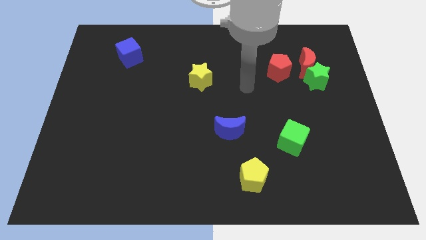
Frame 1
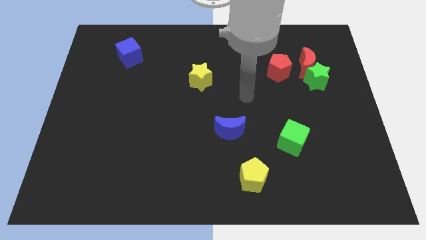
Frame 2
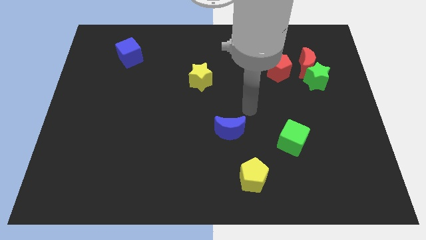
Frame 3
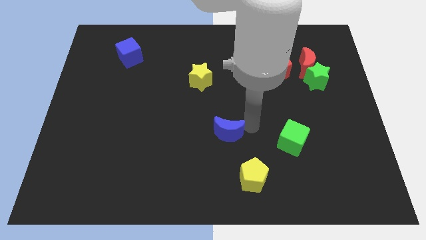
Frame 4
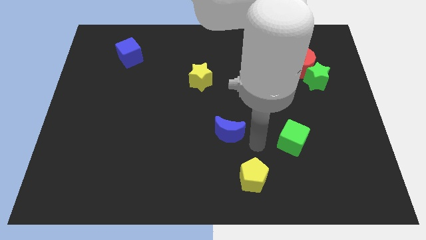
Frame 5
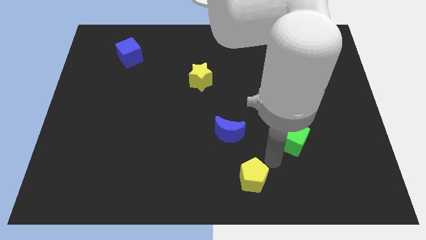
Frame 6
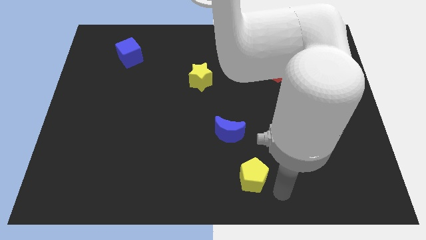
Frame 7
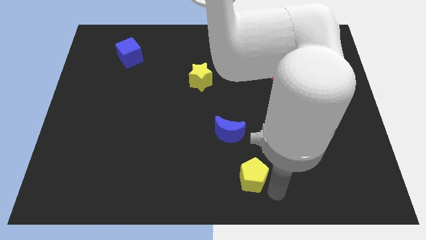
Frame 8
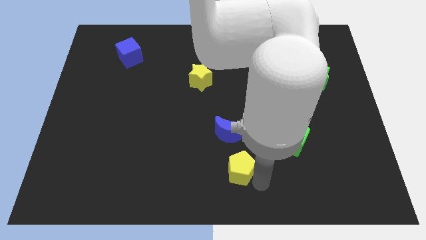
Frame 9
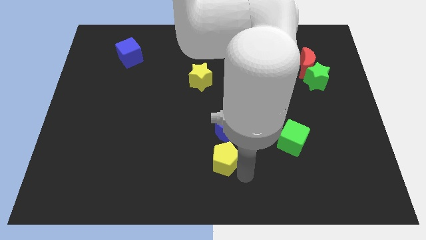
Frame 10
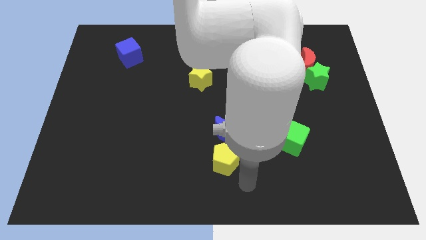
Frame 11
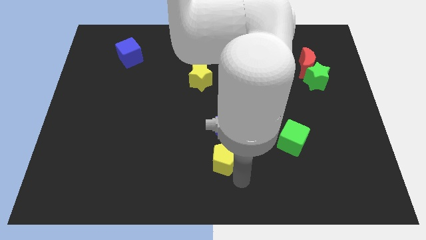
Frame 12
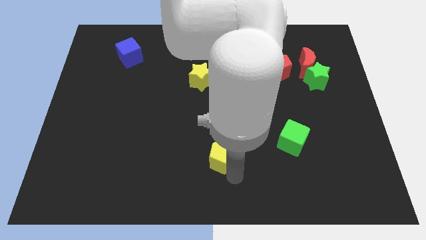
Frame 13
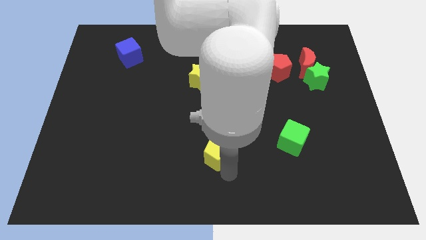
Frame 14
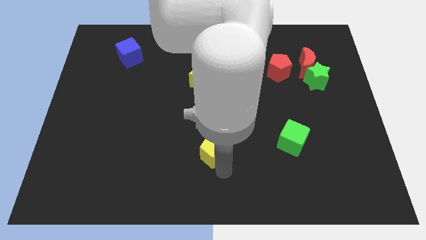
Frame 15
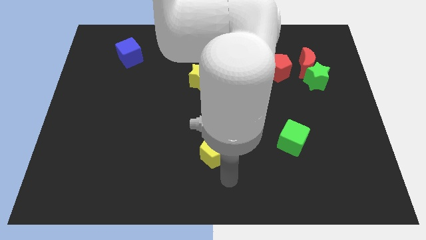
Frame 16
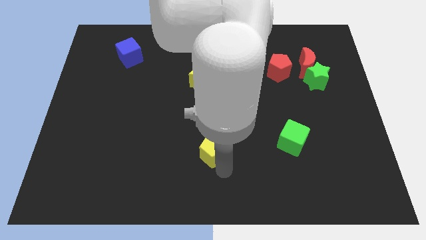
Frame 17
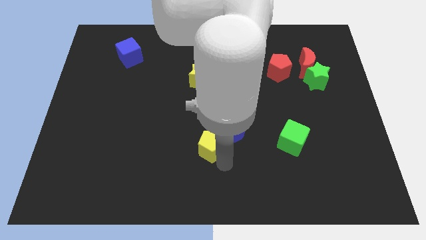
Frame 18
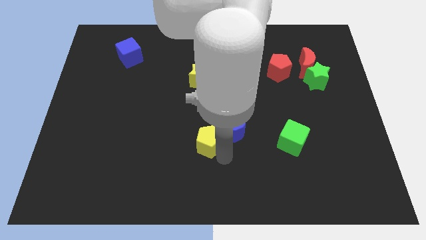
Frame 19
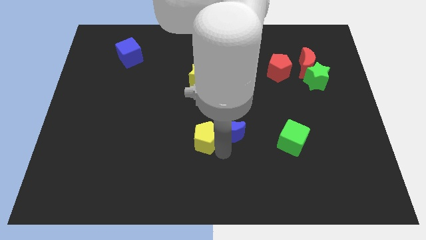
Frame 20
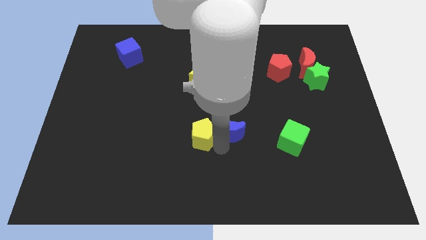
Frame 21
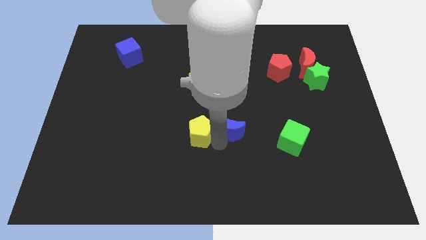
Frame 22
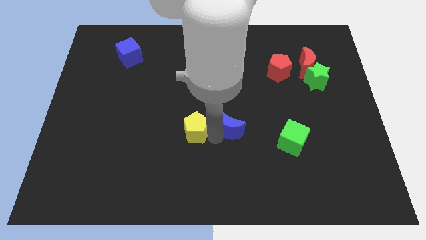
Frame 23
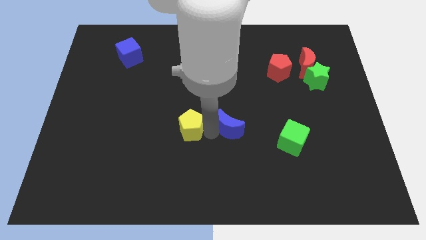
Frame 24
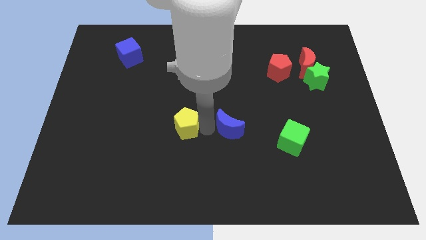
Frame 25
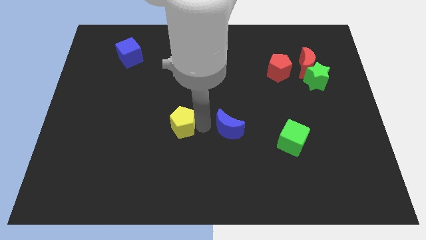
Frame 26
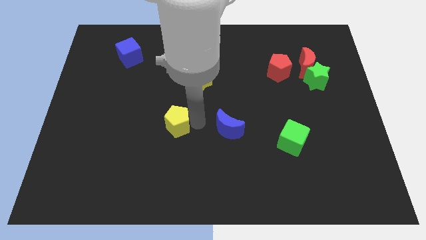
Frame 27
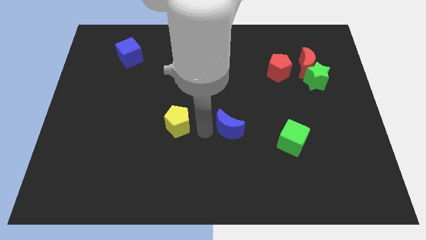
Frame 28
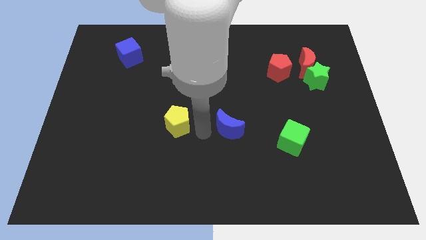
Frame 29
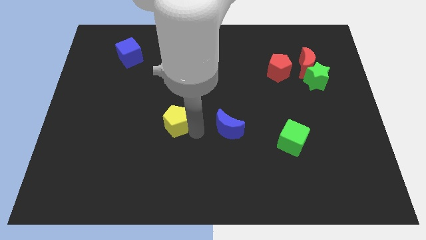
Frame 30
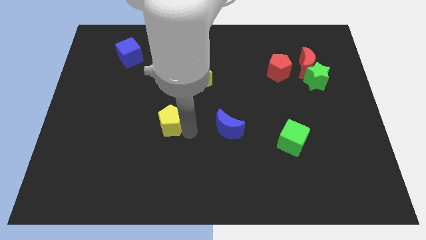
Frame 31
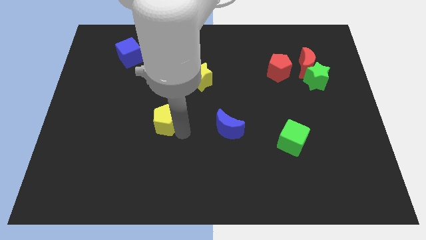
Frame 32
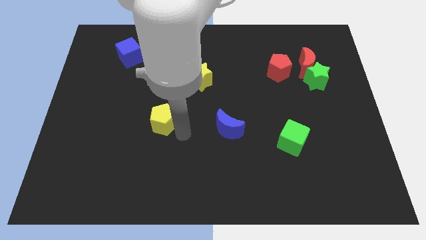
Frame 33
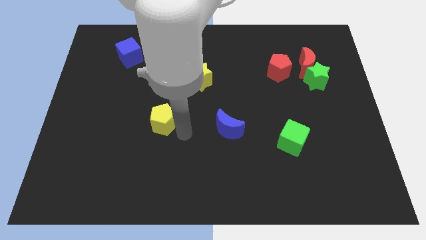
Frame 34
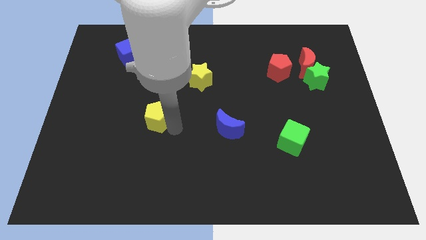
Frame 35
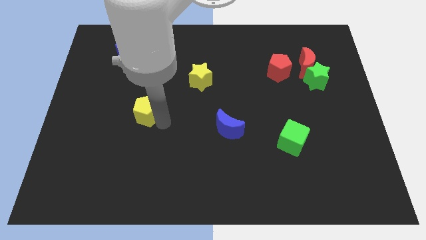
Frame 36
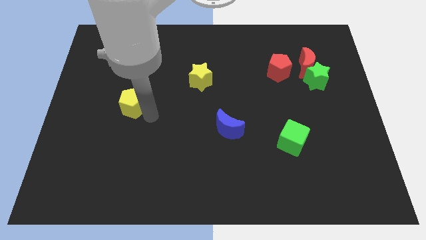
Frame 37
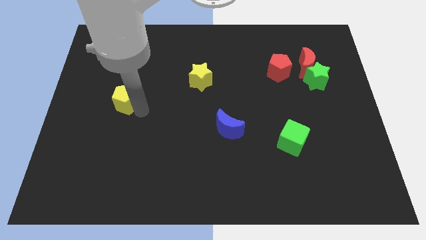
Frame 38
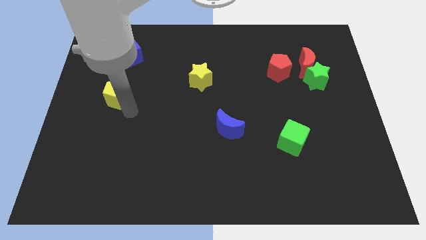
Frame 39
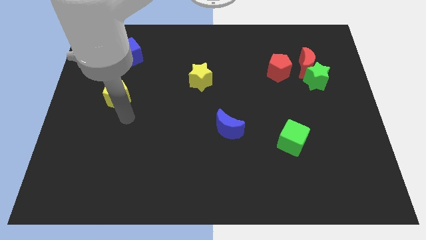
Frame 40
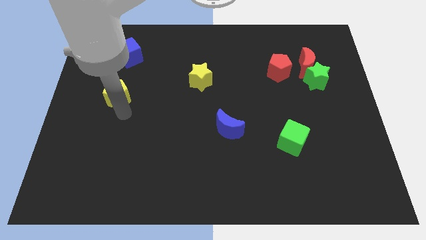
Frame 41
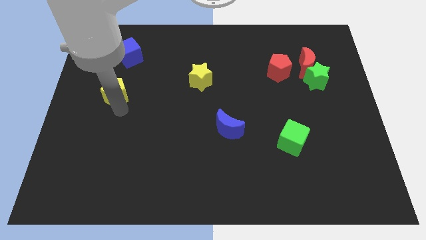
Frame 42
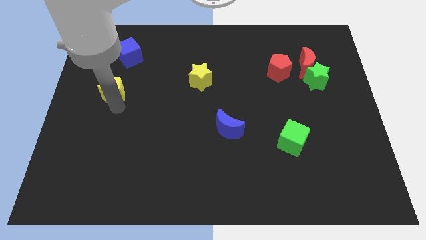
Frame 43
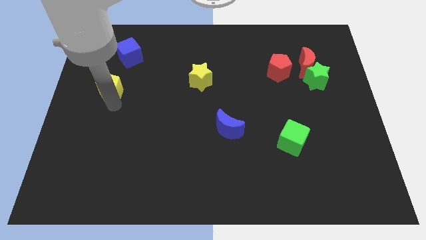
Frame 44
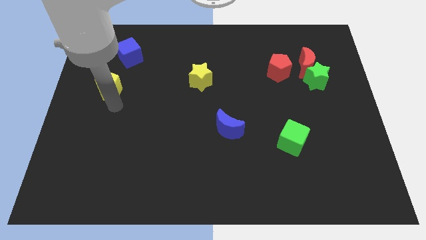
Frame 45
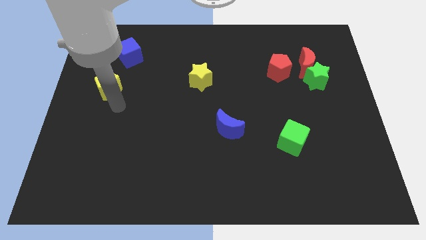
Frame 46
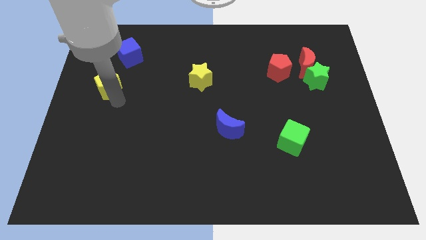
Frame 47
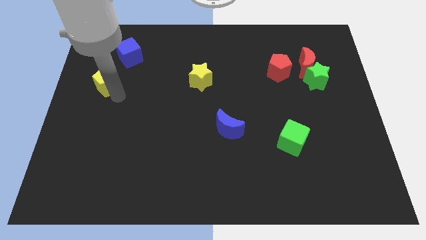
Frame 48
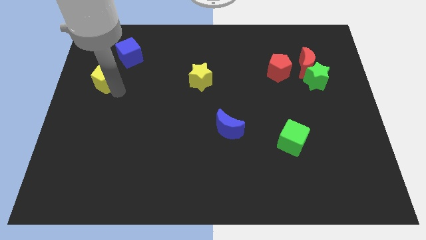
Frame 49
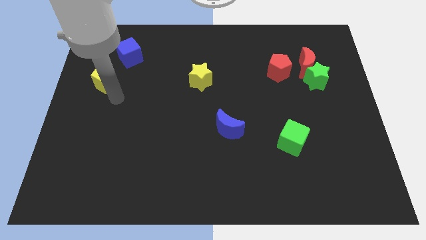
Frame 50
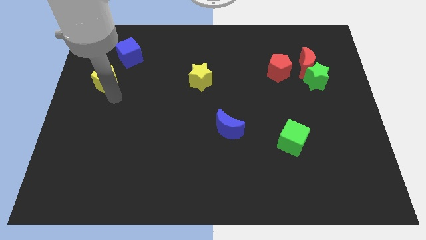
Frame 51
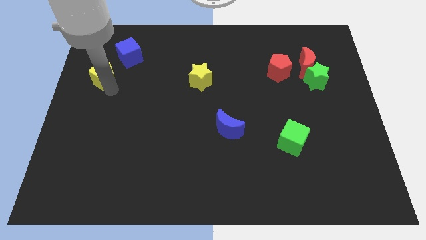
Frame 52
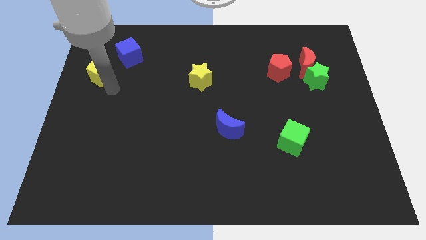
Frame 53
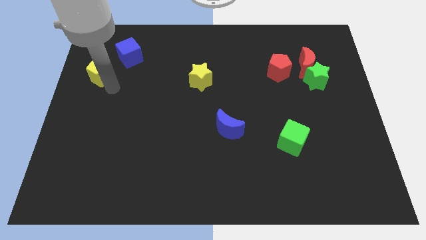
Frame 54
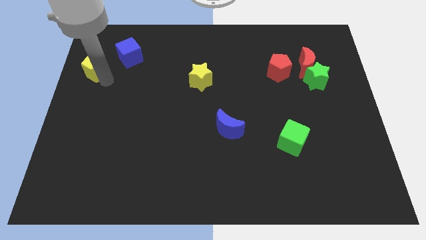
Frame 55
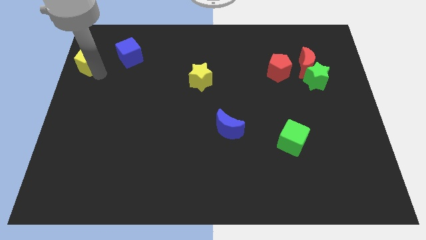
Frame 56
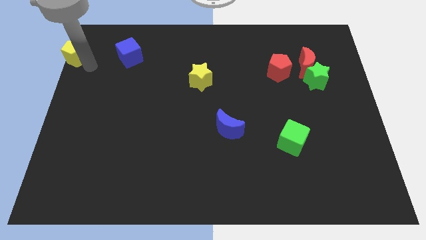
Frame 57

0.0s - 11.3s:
slide the yellow pentagon to the upper left corner

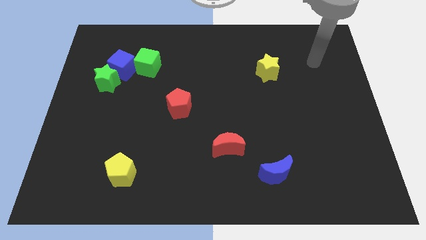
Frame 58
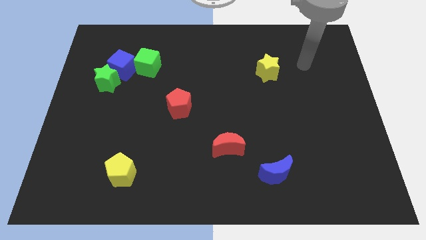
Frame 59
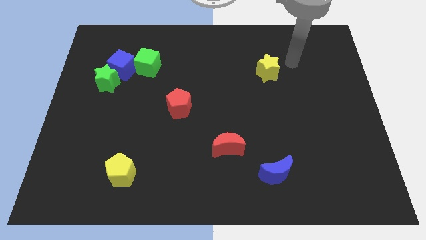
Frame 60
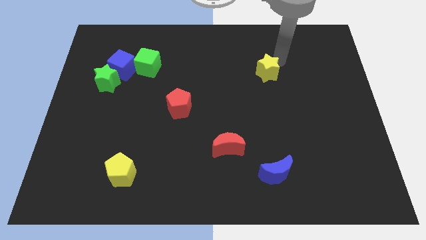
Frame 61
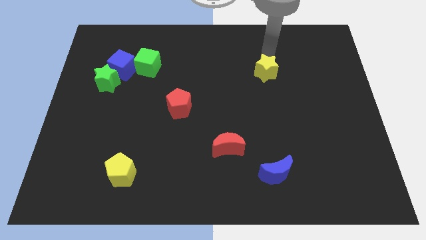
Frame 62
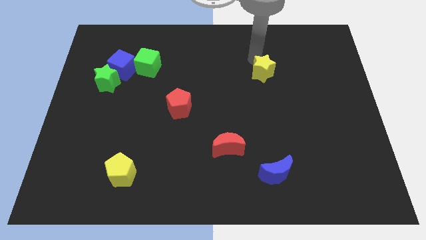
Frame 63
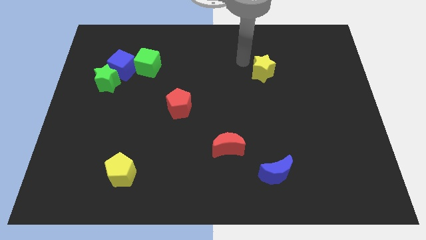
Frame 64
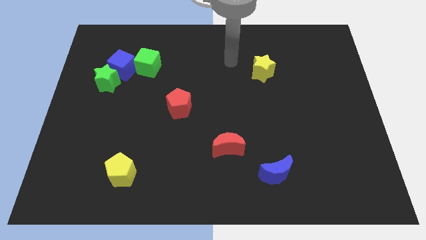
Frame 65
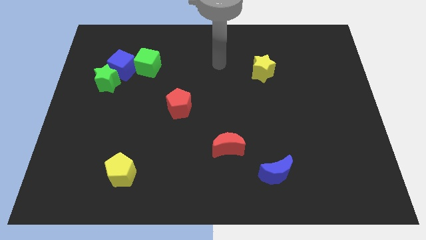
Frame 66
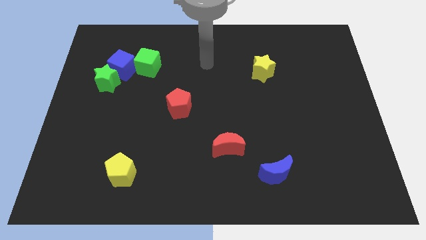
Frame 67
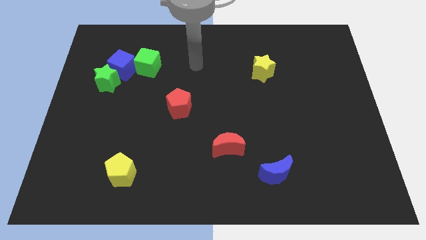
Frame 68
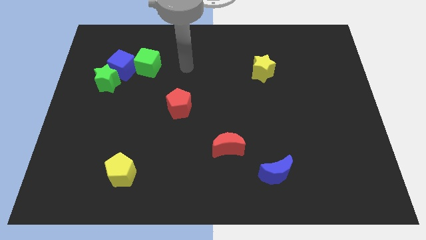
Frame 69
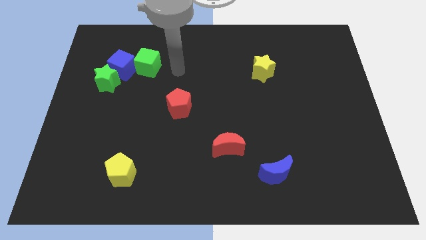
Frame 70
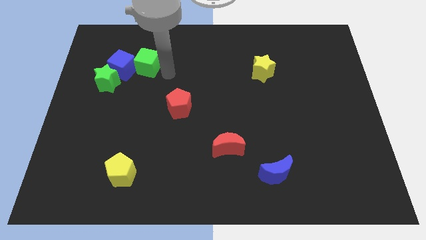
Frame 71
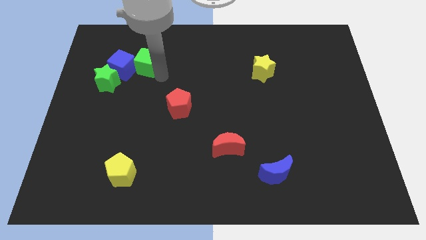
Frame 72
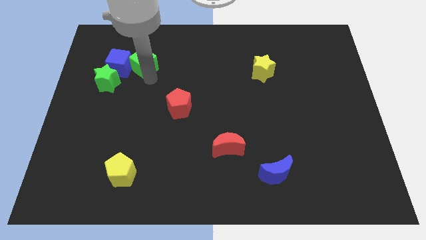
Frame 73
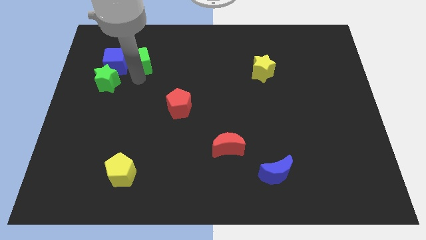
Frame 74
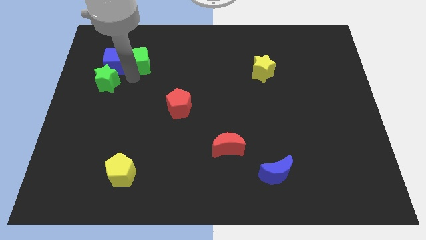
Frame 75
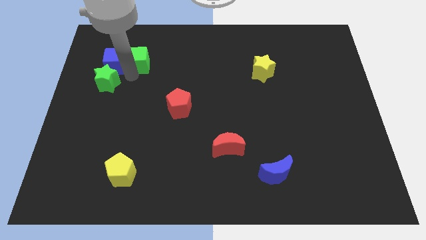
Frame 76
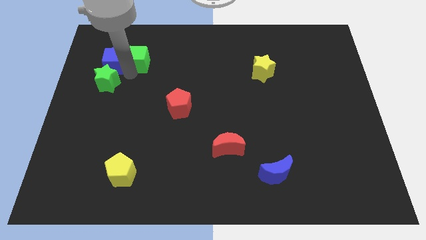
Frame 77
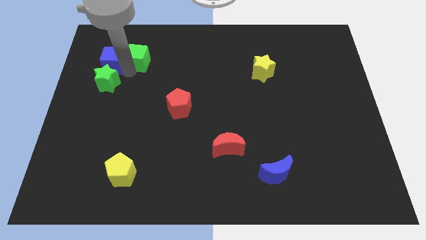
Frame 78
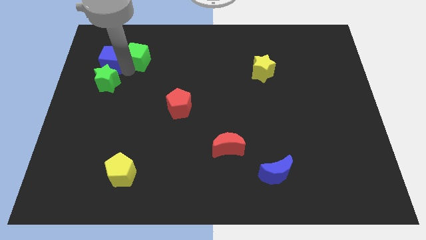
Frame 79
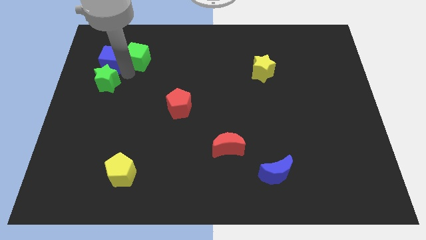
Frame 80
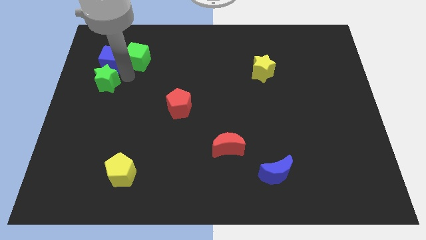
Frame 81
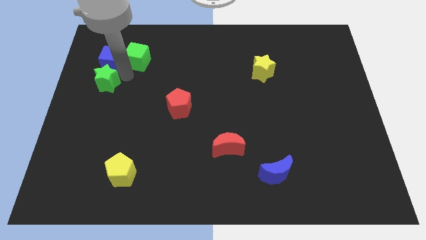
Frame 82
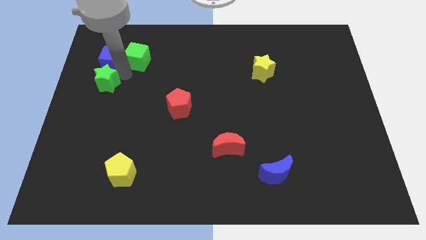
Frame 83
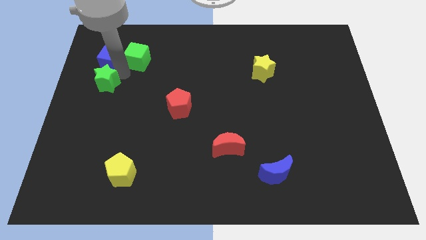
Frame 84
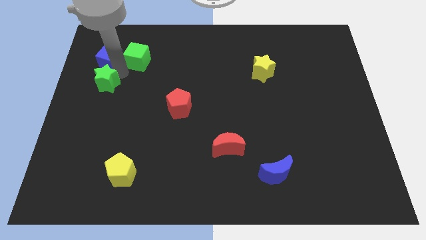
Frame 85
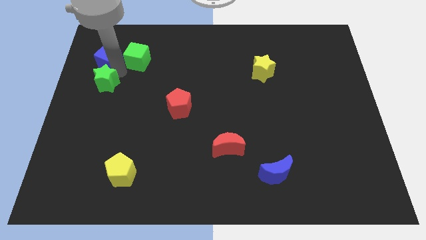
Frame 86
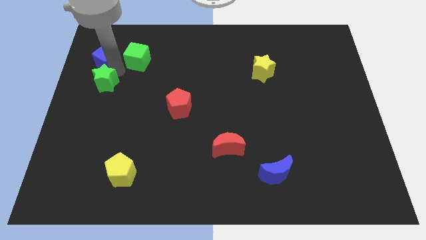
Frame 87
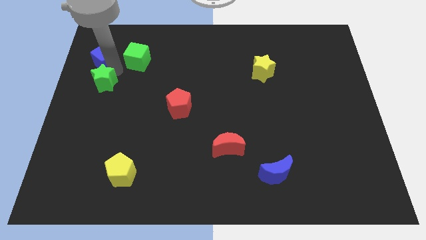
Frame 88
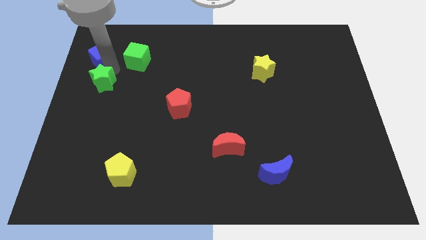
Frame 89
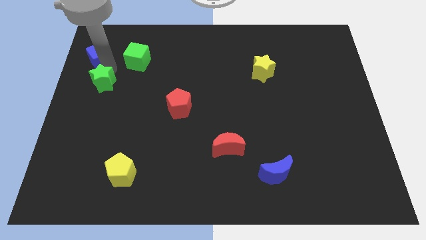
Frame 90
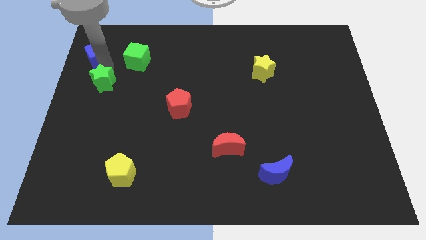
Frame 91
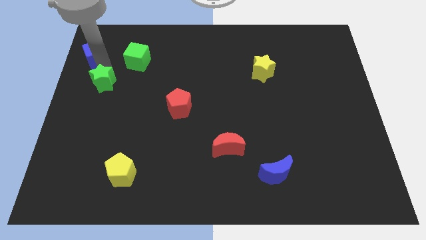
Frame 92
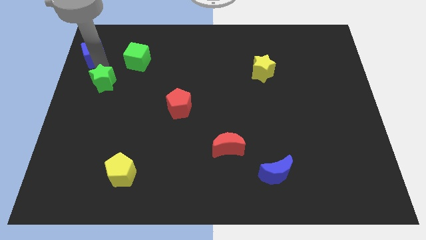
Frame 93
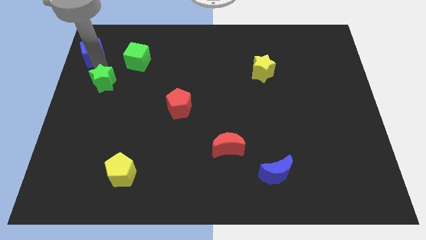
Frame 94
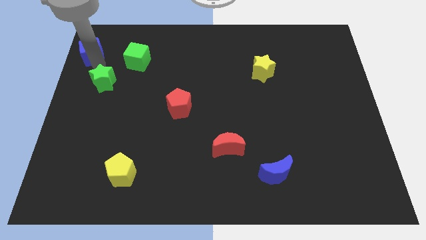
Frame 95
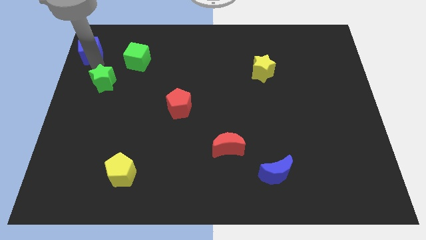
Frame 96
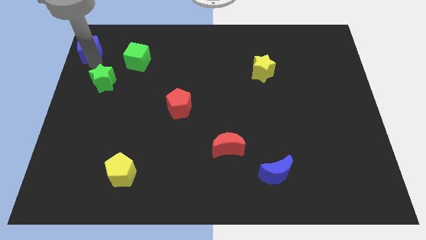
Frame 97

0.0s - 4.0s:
move the blue cube to the top left
